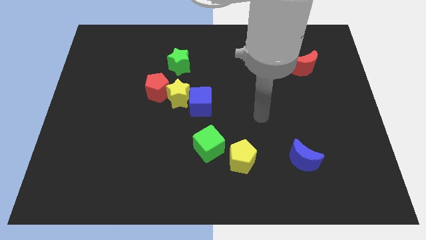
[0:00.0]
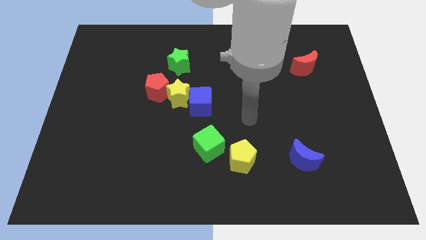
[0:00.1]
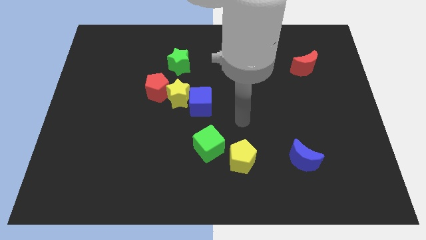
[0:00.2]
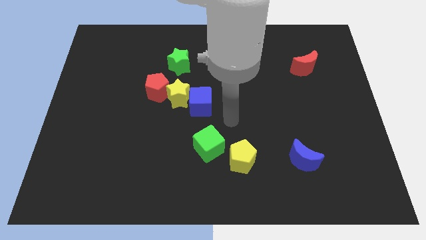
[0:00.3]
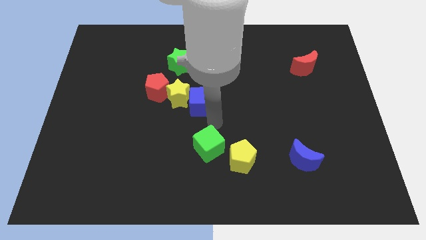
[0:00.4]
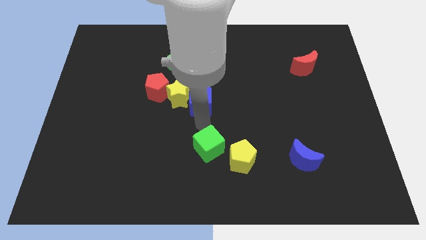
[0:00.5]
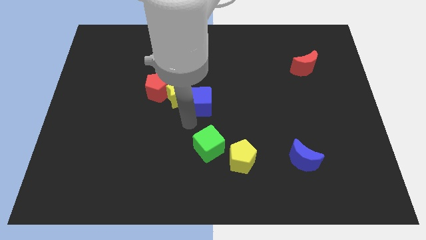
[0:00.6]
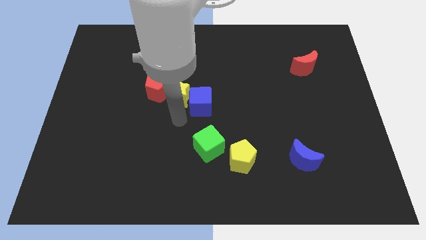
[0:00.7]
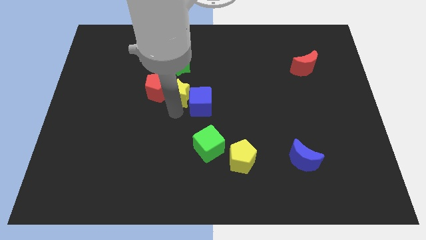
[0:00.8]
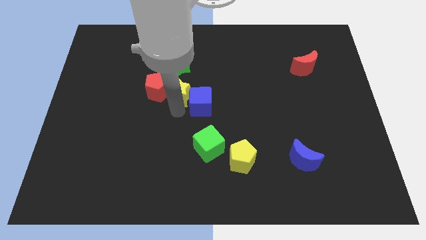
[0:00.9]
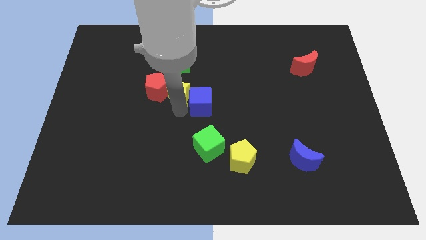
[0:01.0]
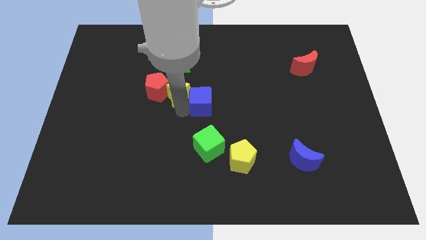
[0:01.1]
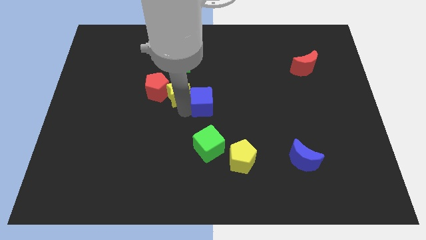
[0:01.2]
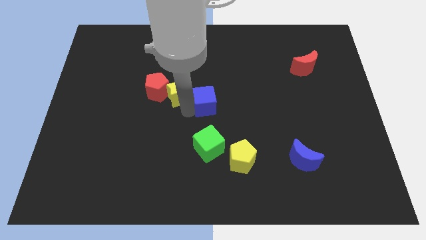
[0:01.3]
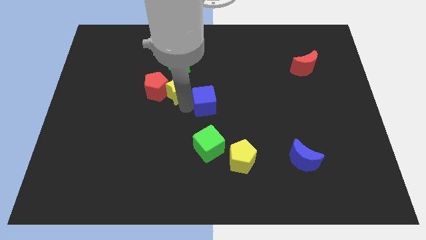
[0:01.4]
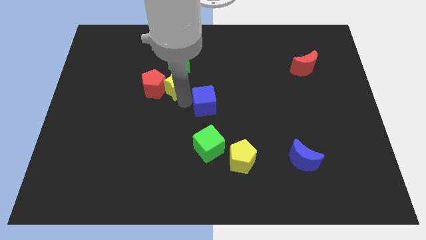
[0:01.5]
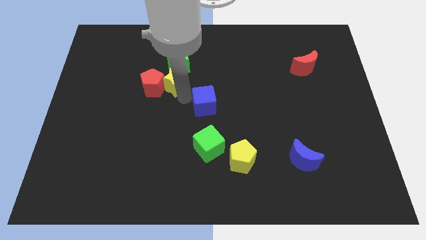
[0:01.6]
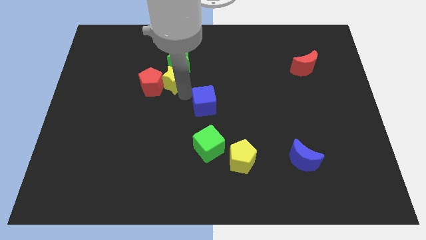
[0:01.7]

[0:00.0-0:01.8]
move the blue cube away from the yellow star

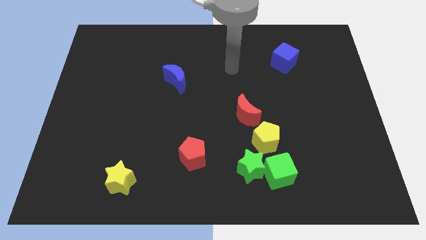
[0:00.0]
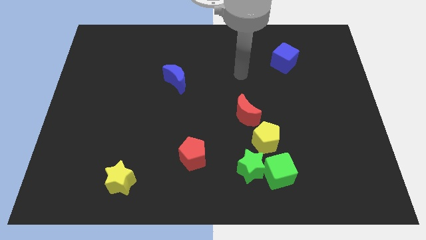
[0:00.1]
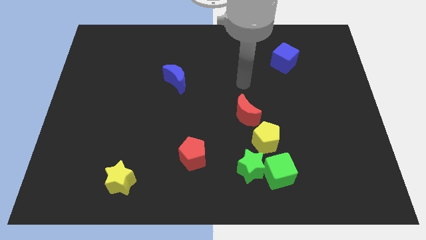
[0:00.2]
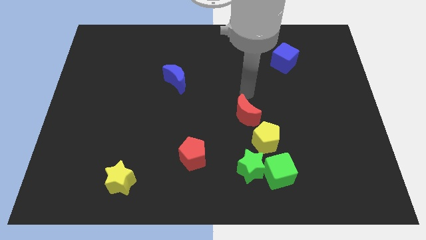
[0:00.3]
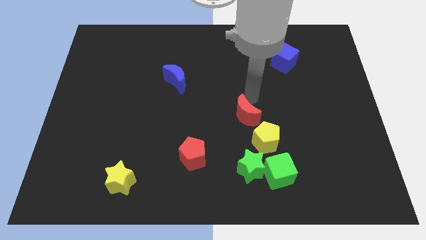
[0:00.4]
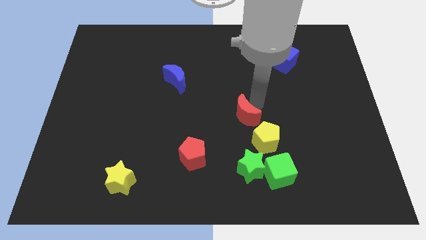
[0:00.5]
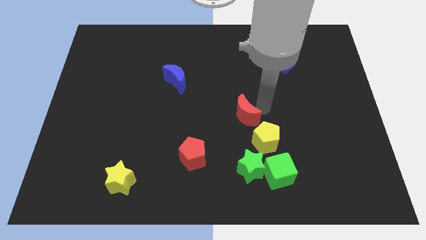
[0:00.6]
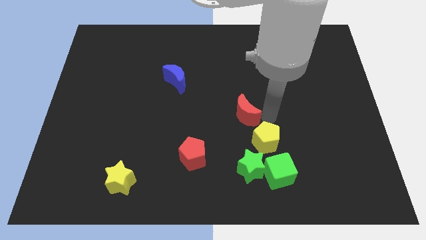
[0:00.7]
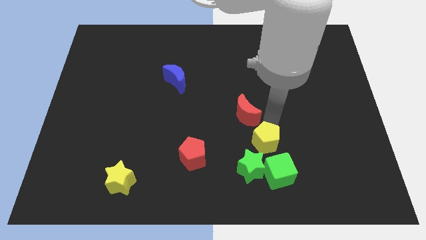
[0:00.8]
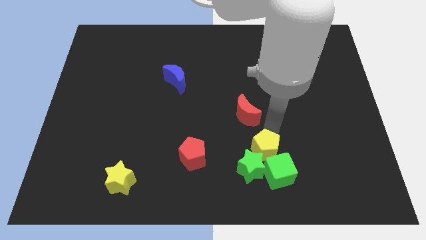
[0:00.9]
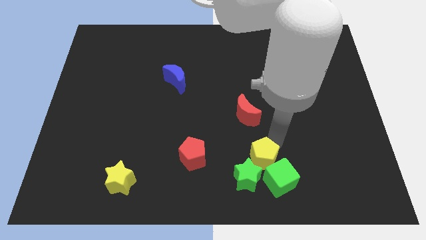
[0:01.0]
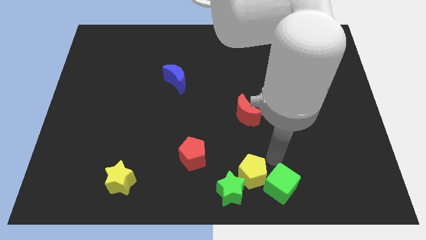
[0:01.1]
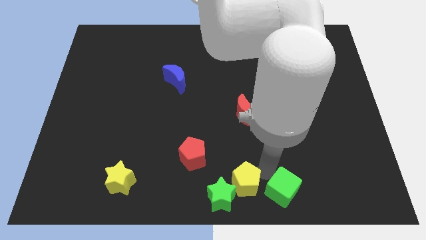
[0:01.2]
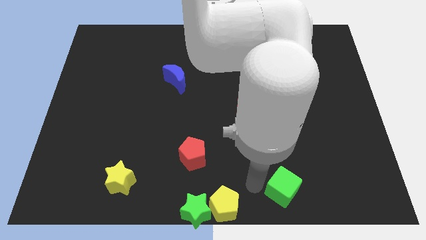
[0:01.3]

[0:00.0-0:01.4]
separate the green star from the green cube and yellow pentagon

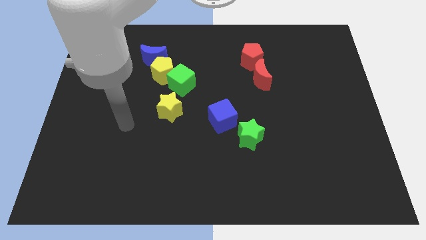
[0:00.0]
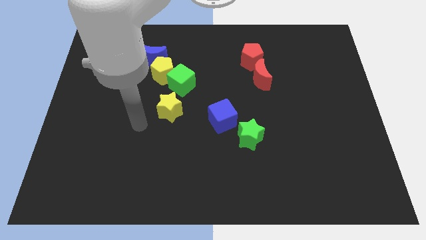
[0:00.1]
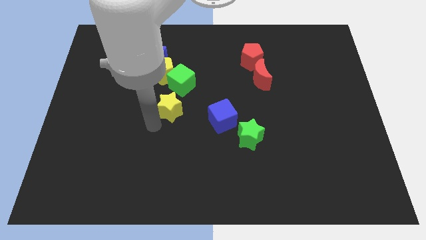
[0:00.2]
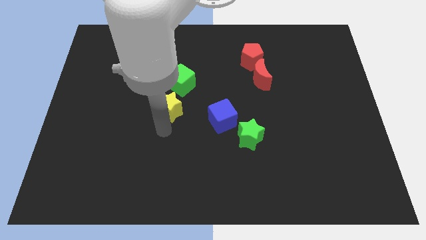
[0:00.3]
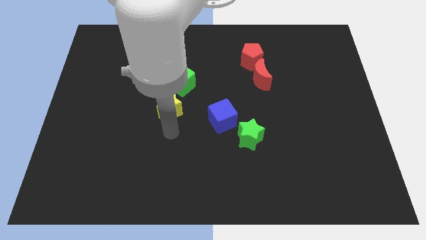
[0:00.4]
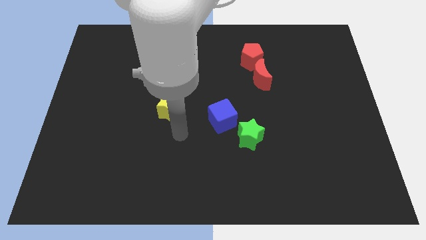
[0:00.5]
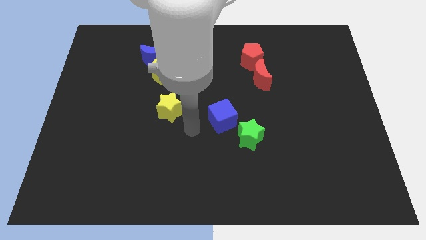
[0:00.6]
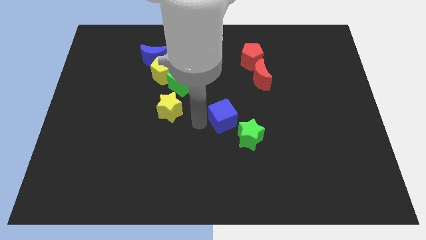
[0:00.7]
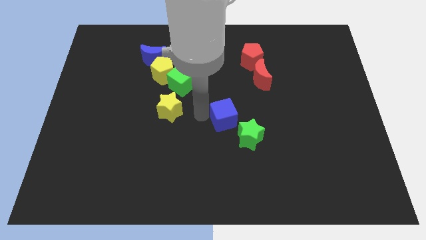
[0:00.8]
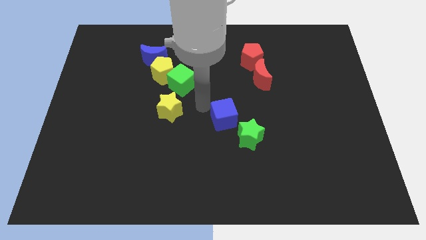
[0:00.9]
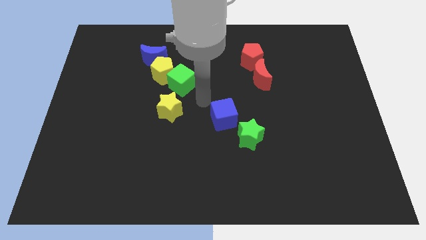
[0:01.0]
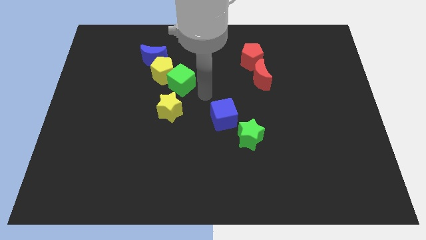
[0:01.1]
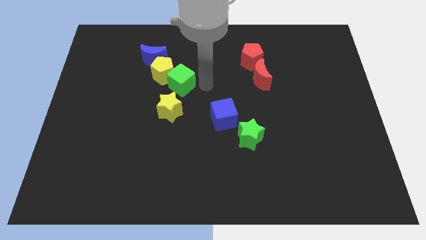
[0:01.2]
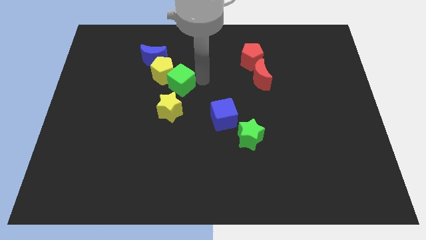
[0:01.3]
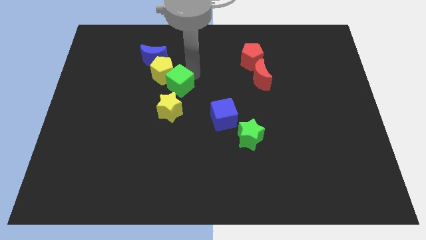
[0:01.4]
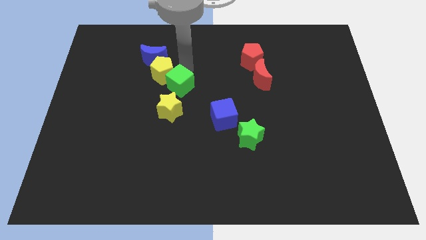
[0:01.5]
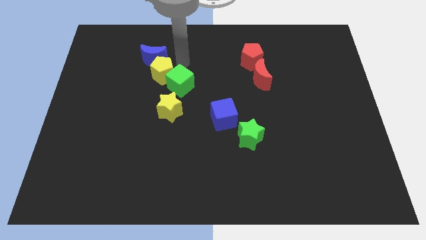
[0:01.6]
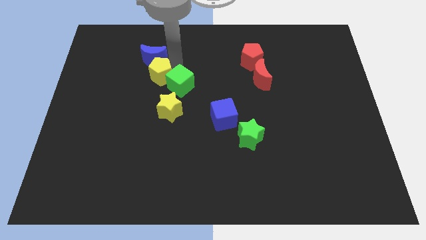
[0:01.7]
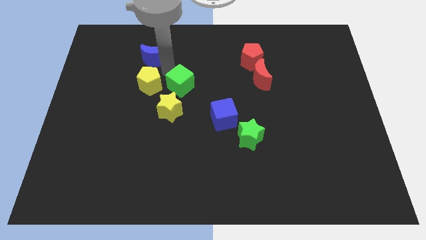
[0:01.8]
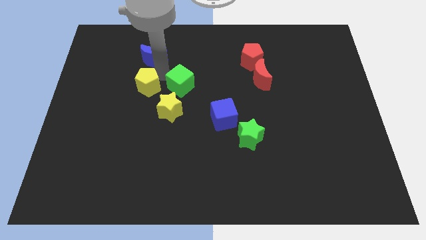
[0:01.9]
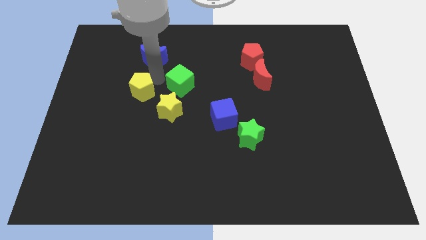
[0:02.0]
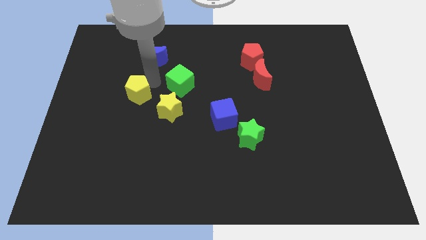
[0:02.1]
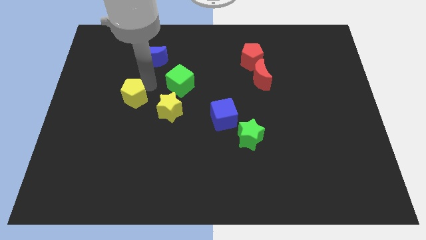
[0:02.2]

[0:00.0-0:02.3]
separate the yellow pentagon from the green cube and blue moon

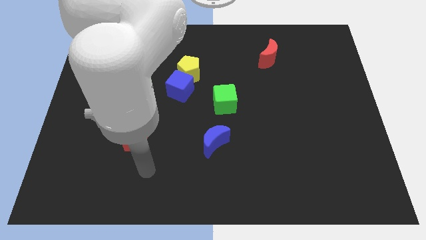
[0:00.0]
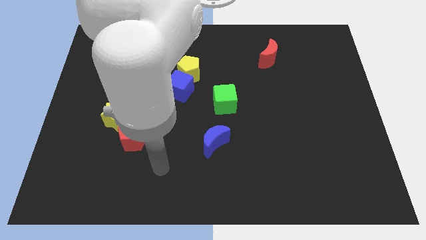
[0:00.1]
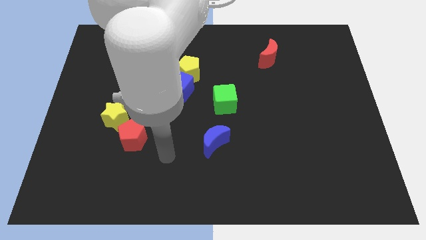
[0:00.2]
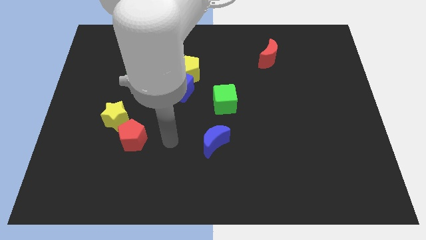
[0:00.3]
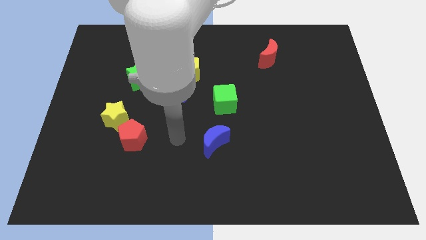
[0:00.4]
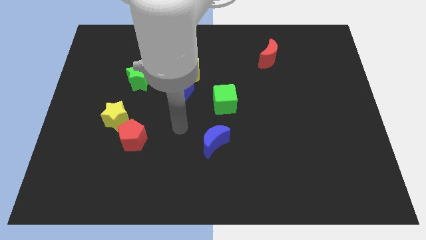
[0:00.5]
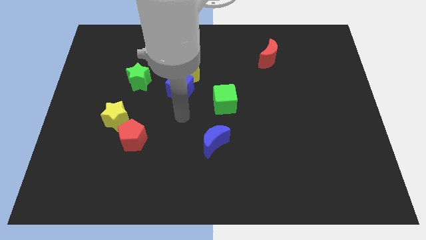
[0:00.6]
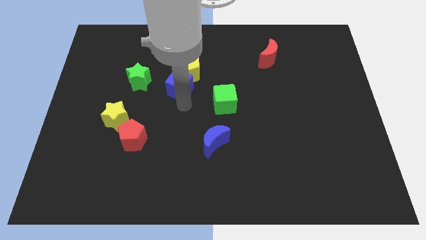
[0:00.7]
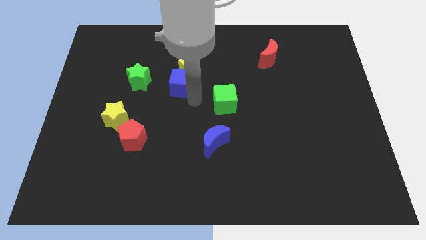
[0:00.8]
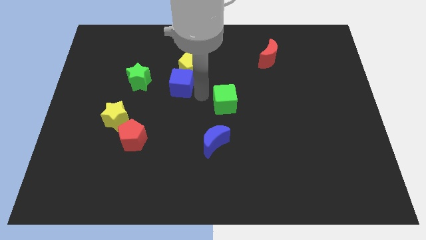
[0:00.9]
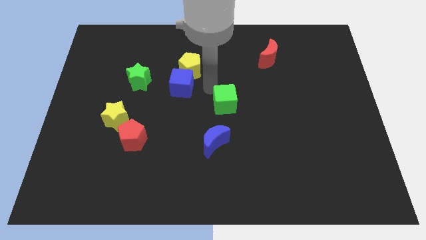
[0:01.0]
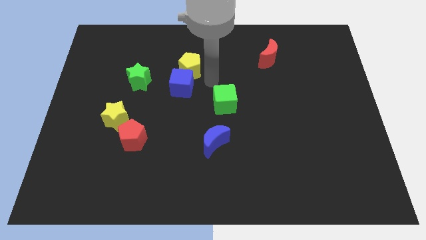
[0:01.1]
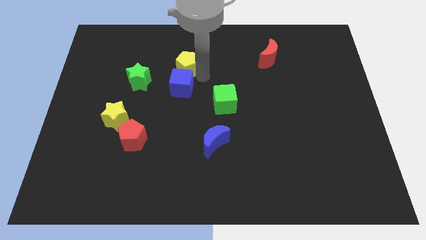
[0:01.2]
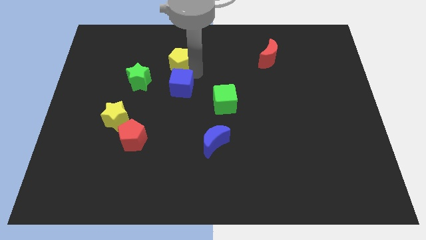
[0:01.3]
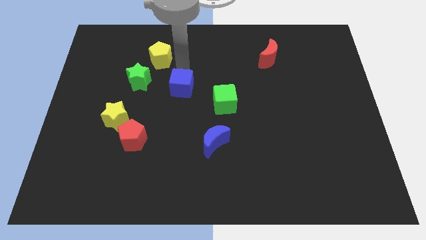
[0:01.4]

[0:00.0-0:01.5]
separate the blue cube from the yellow pentagon

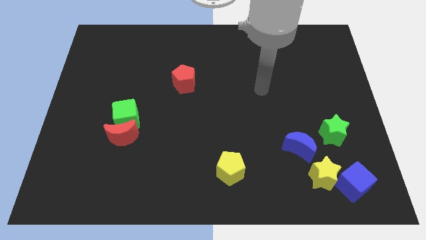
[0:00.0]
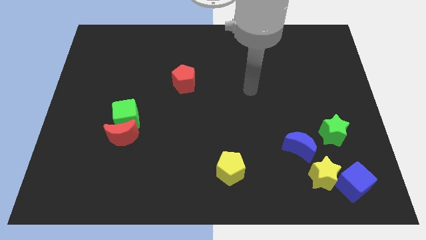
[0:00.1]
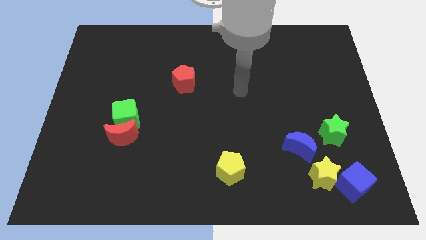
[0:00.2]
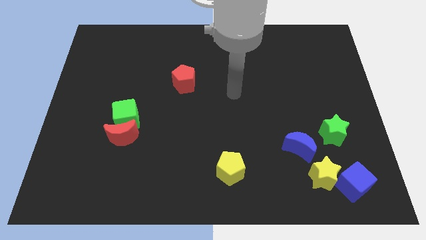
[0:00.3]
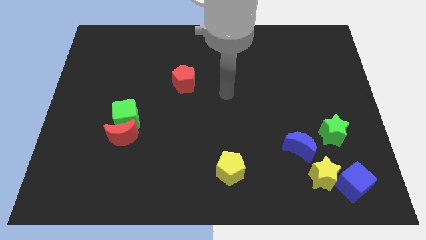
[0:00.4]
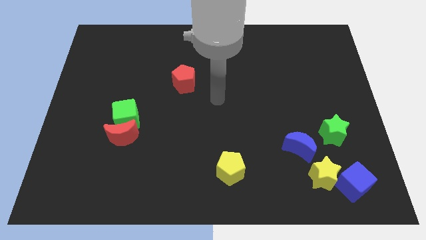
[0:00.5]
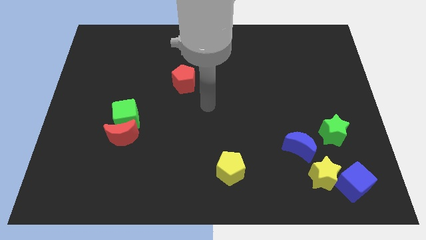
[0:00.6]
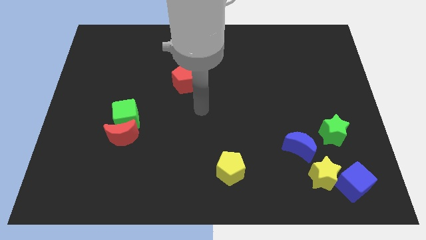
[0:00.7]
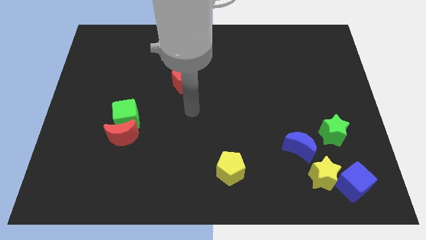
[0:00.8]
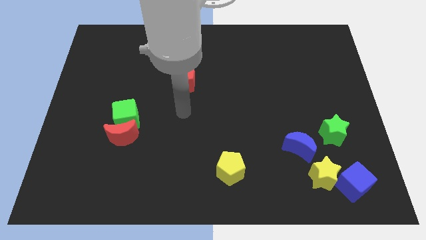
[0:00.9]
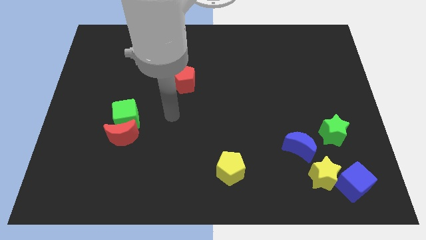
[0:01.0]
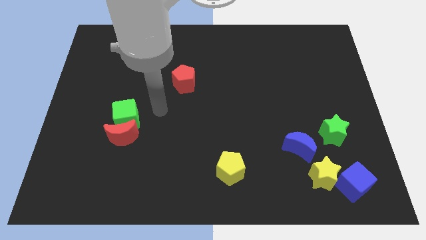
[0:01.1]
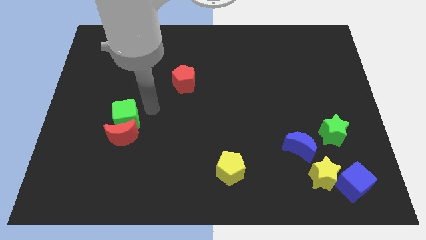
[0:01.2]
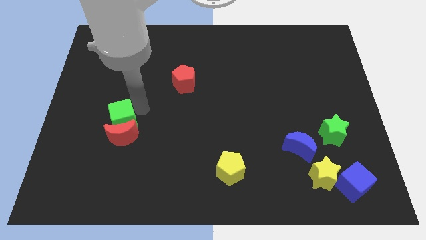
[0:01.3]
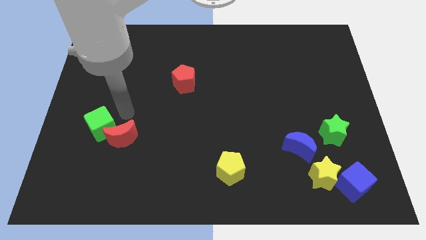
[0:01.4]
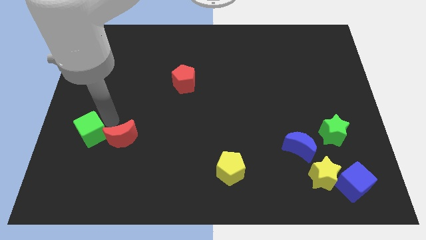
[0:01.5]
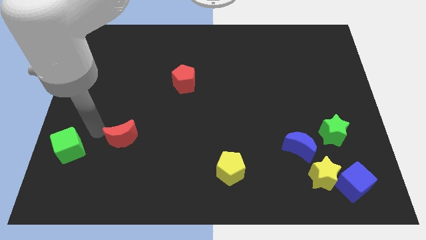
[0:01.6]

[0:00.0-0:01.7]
pull the red moon apart from the green cube

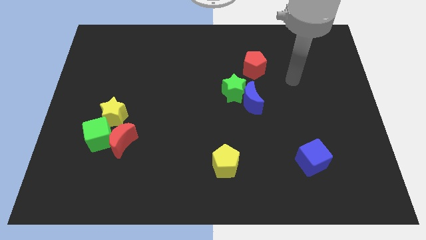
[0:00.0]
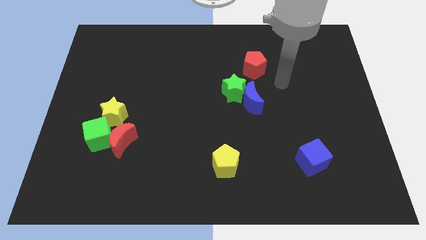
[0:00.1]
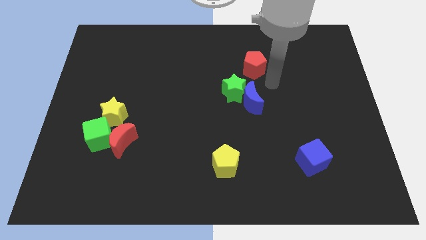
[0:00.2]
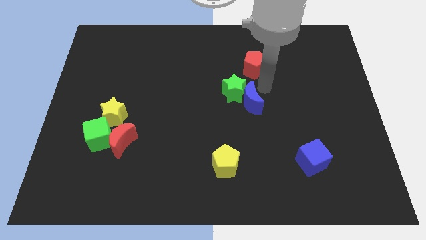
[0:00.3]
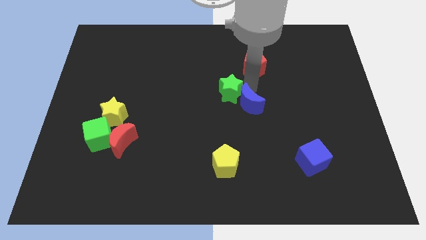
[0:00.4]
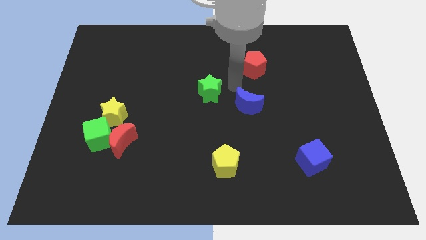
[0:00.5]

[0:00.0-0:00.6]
pull the blue moon apart from the green star

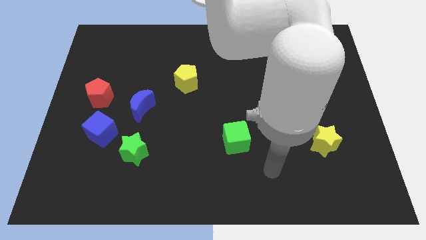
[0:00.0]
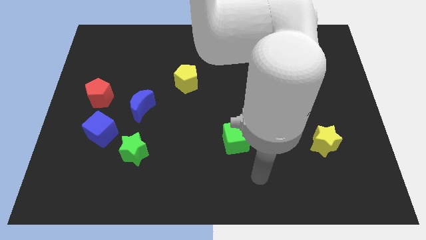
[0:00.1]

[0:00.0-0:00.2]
pull the blue cube apart from the green star
